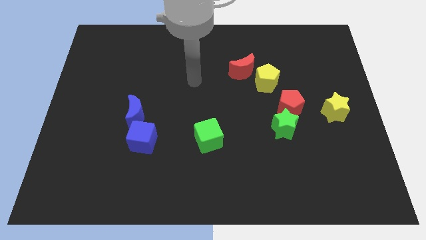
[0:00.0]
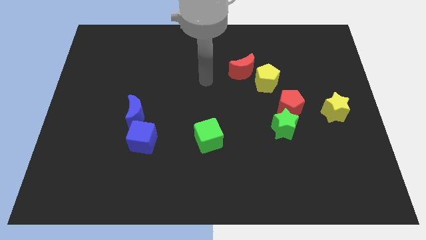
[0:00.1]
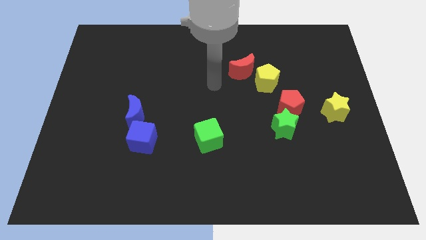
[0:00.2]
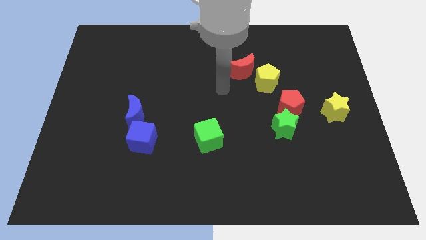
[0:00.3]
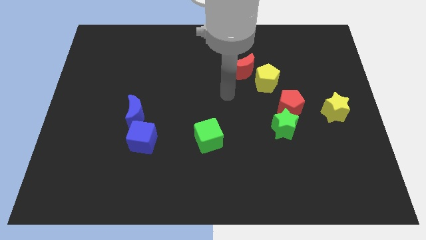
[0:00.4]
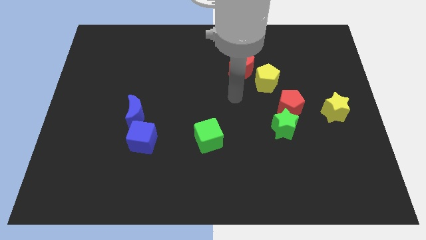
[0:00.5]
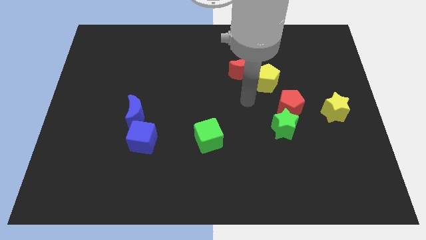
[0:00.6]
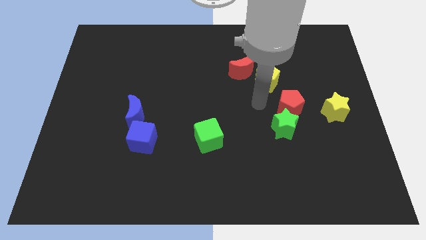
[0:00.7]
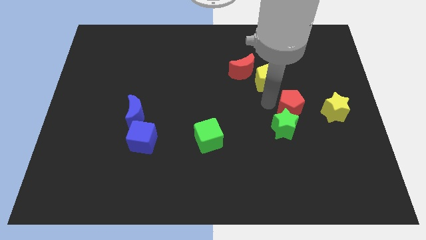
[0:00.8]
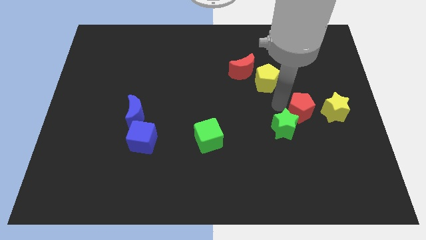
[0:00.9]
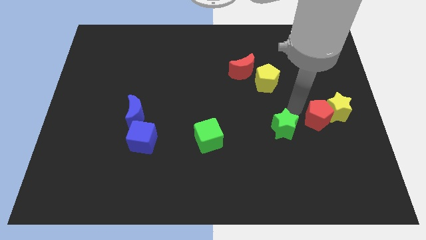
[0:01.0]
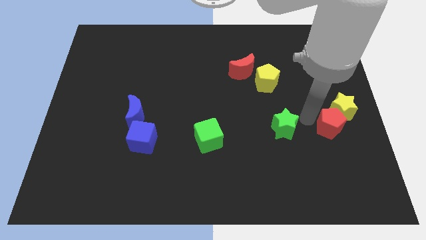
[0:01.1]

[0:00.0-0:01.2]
pull the green star apart from the red pentagon

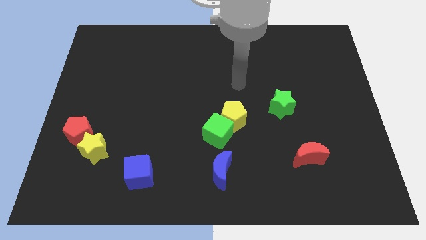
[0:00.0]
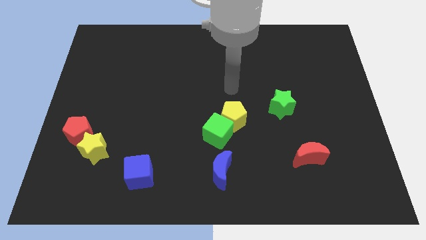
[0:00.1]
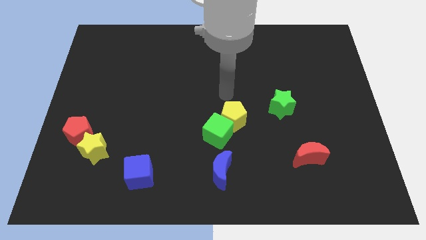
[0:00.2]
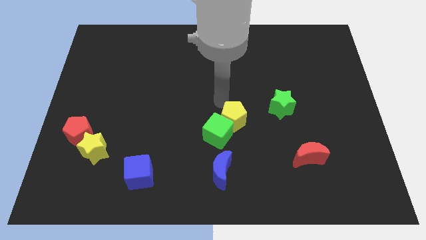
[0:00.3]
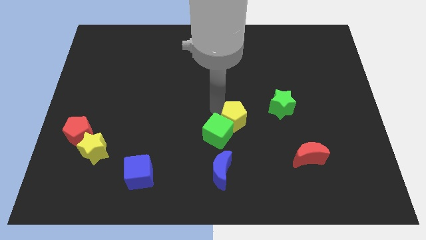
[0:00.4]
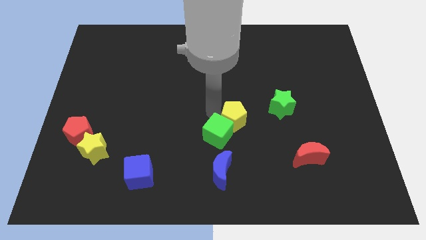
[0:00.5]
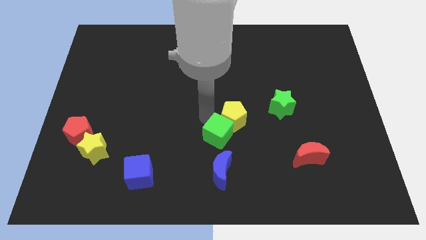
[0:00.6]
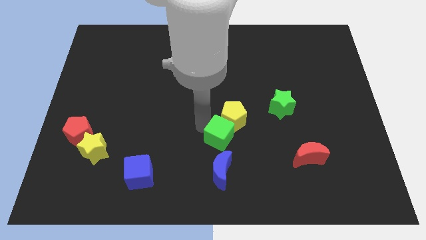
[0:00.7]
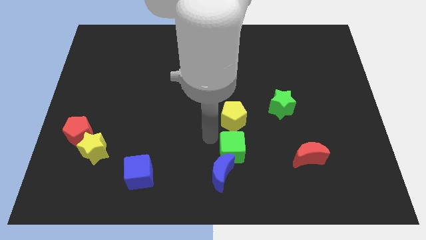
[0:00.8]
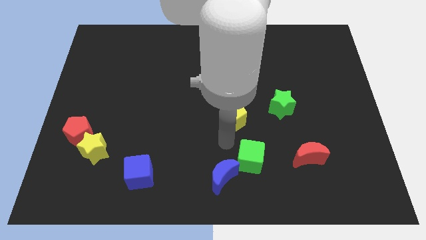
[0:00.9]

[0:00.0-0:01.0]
separate the yellow pentagon from the green cube

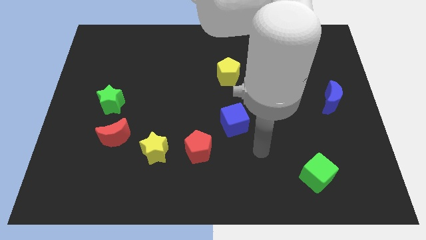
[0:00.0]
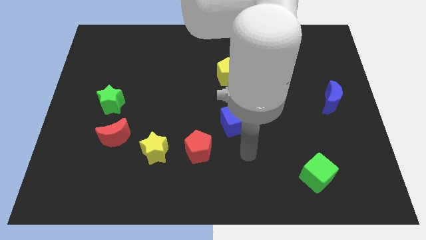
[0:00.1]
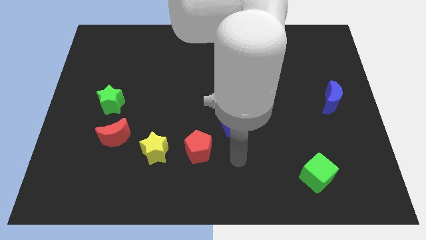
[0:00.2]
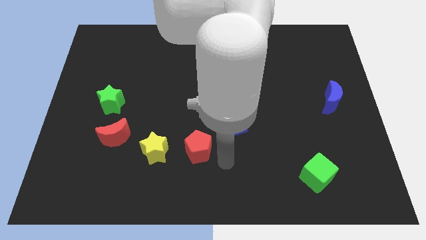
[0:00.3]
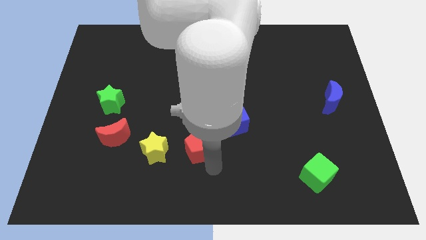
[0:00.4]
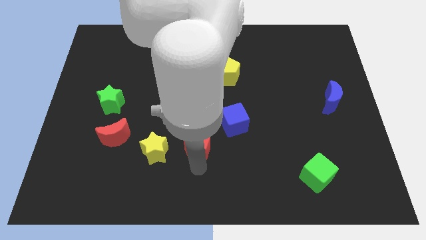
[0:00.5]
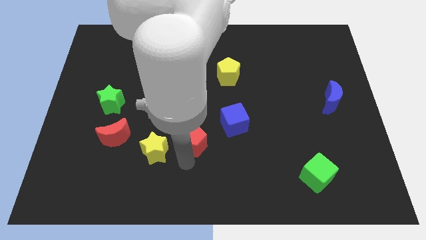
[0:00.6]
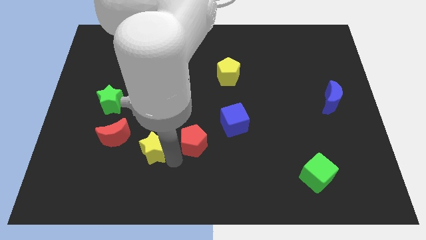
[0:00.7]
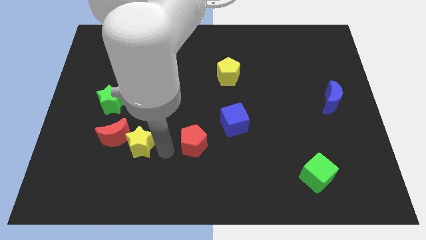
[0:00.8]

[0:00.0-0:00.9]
move the red pentagon away from the yellow star

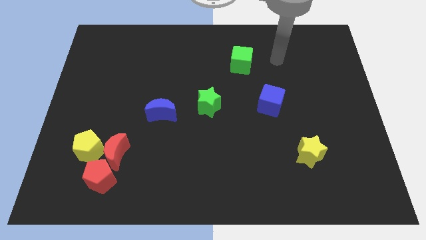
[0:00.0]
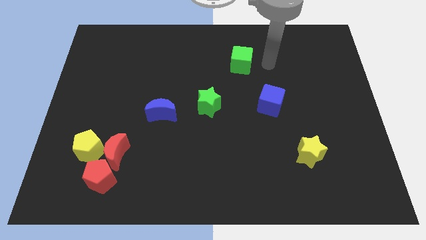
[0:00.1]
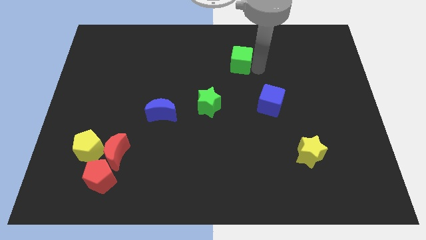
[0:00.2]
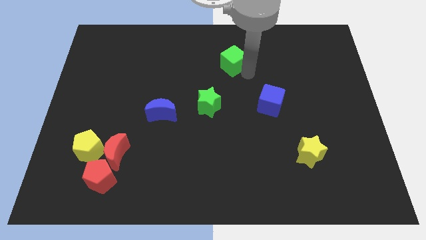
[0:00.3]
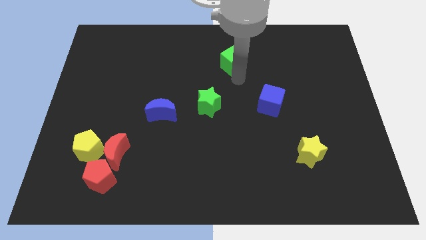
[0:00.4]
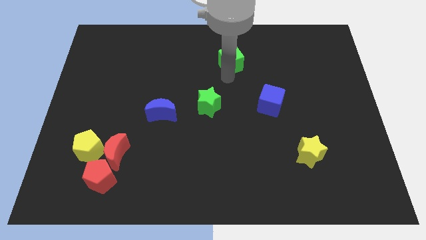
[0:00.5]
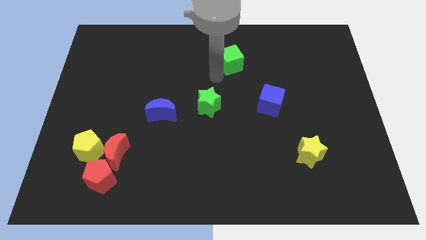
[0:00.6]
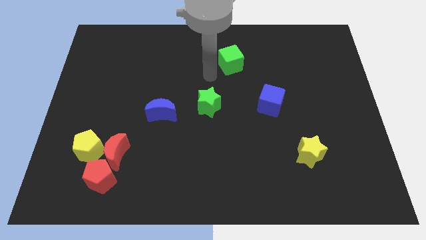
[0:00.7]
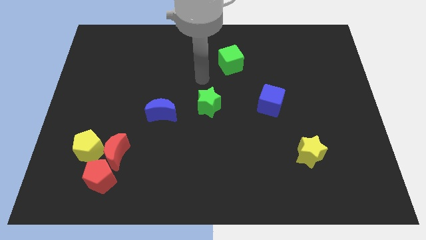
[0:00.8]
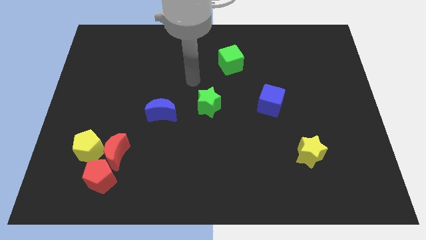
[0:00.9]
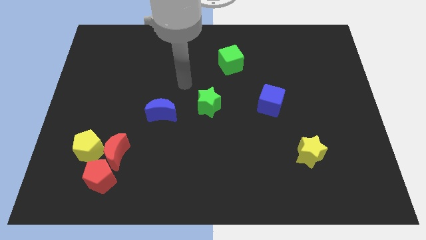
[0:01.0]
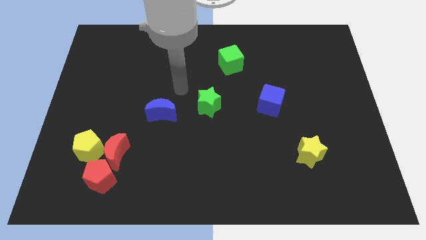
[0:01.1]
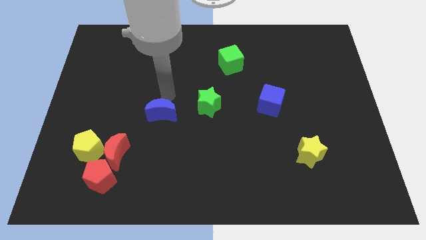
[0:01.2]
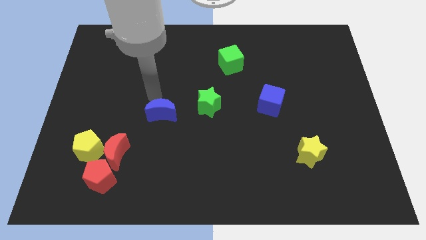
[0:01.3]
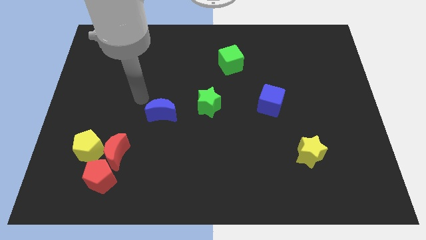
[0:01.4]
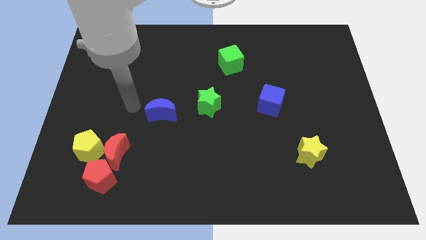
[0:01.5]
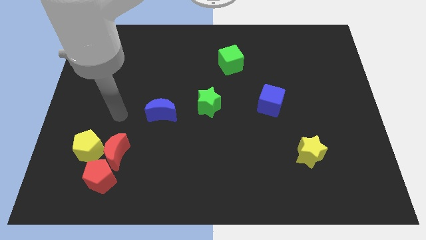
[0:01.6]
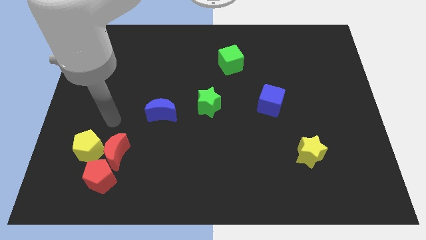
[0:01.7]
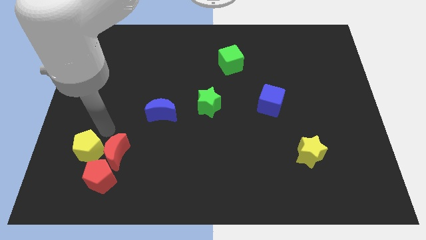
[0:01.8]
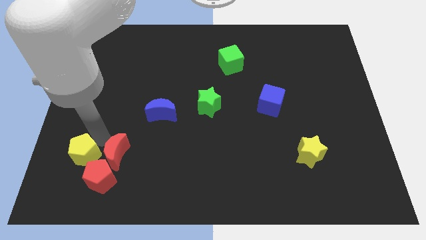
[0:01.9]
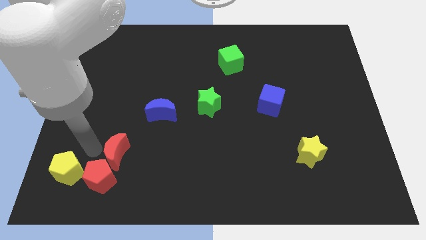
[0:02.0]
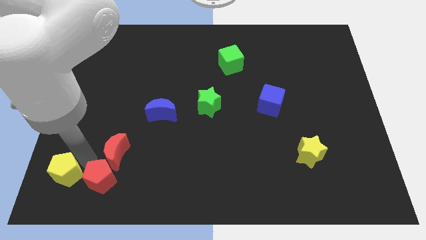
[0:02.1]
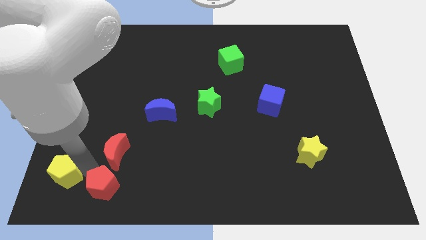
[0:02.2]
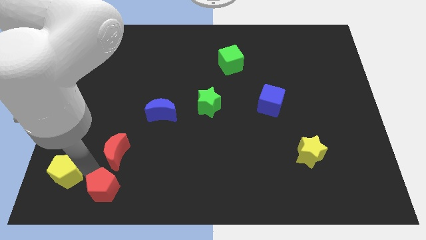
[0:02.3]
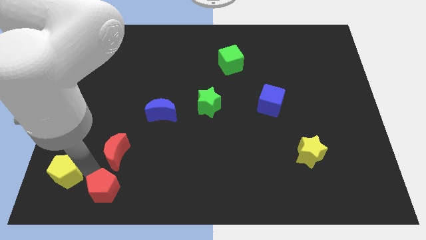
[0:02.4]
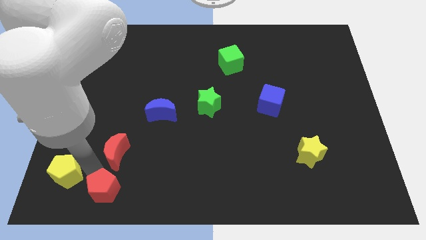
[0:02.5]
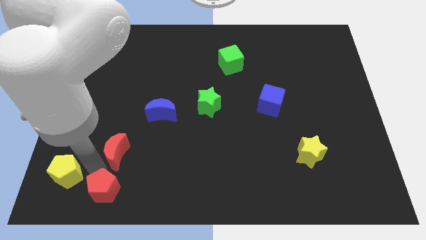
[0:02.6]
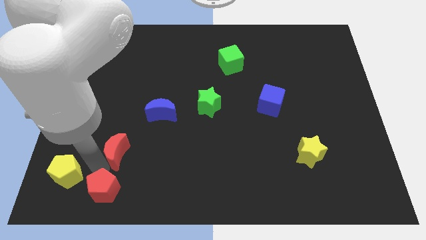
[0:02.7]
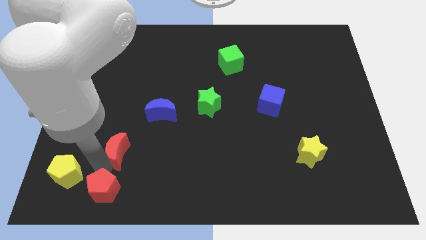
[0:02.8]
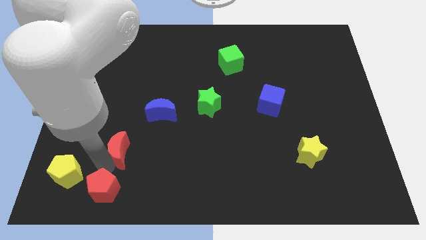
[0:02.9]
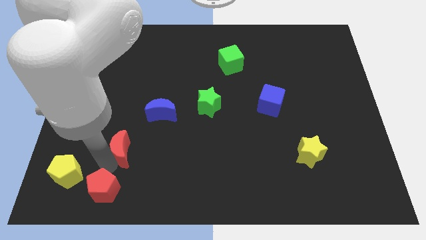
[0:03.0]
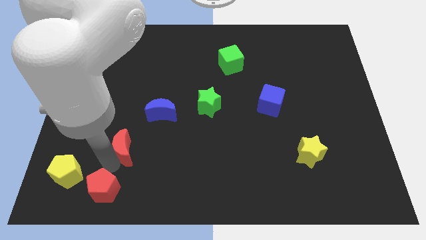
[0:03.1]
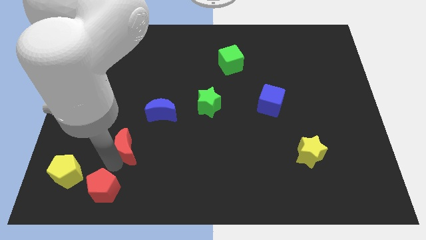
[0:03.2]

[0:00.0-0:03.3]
move the red moon away from the yellow pentagon and red pentagon

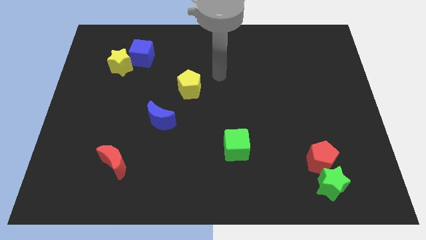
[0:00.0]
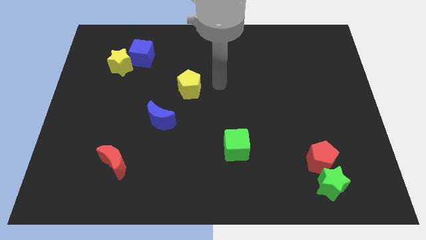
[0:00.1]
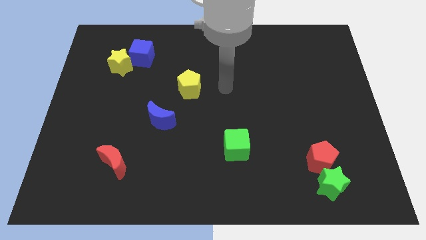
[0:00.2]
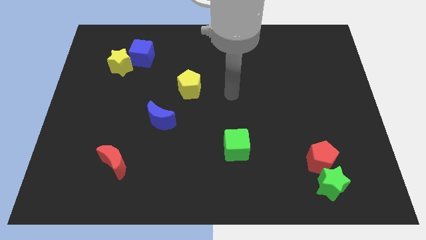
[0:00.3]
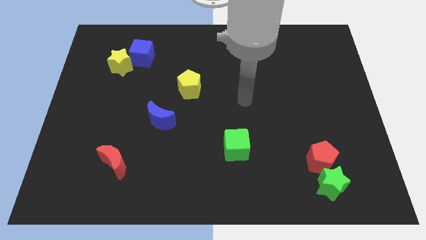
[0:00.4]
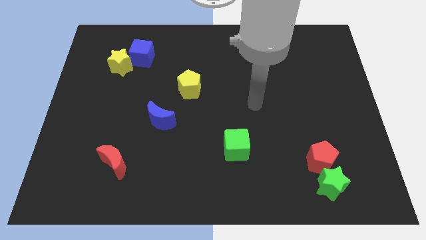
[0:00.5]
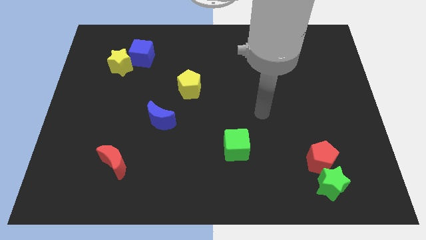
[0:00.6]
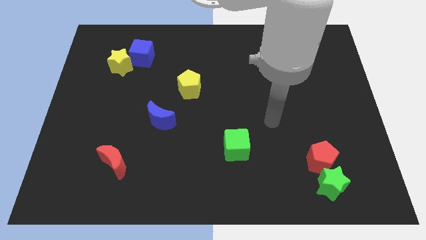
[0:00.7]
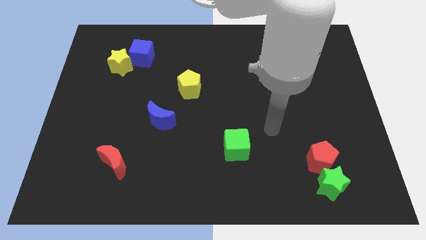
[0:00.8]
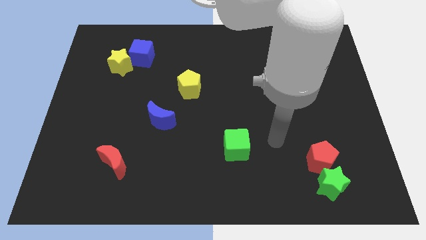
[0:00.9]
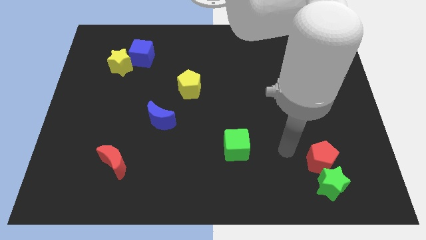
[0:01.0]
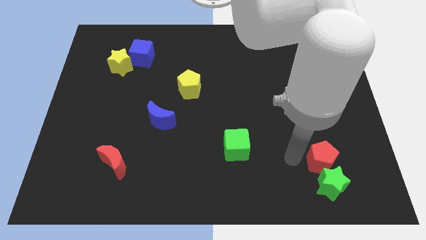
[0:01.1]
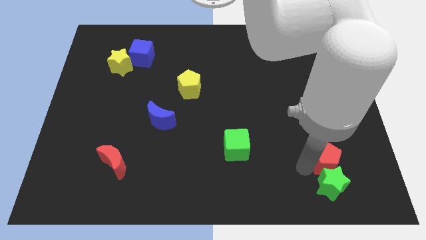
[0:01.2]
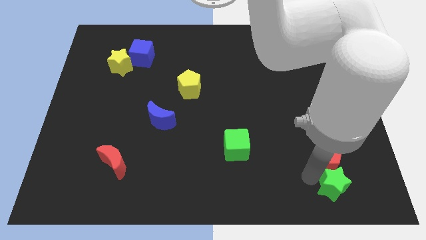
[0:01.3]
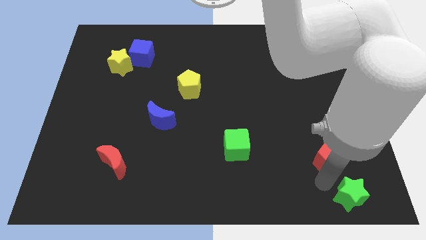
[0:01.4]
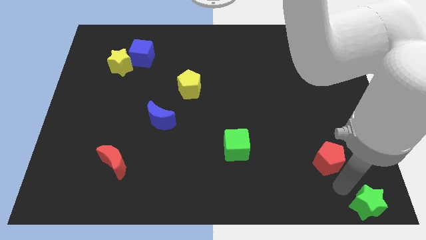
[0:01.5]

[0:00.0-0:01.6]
separate the red pentagon from the green star

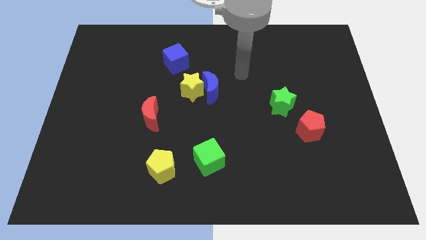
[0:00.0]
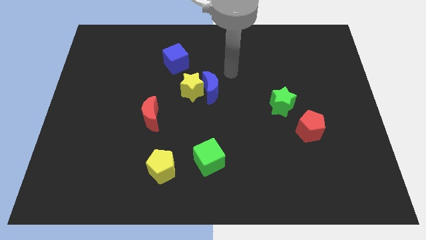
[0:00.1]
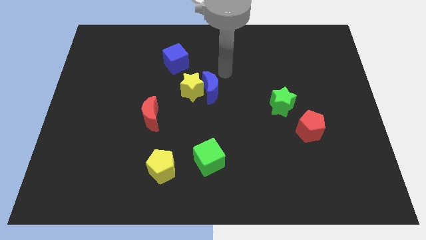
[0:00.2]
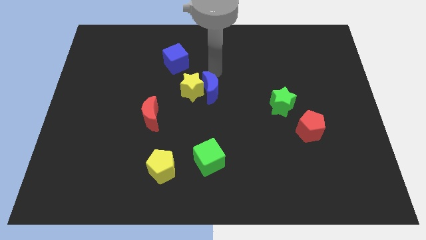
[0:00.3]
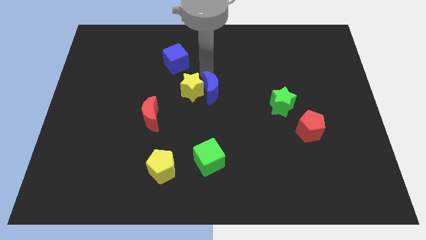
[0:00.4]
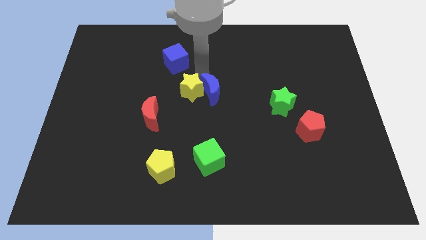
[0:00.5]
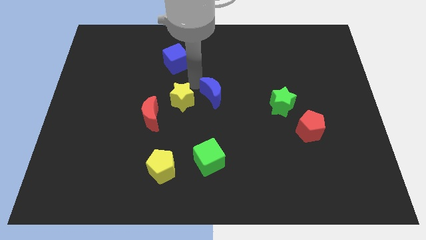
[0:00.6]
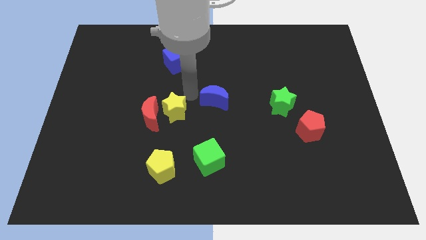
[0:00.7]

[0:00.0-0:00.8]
move the blue moon away from the yellow star

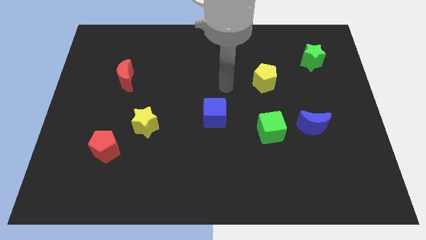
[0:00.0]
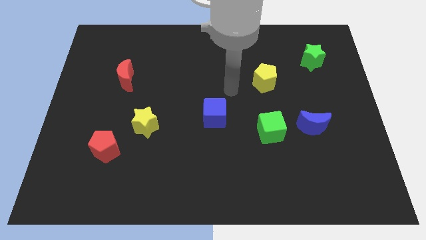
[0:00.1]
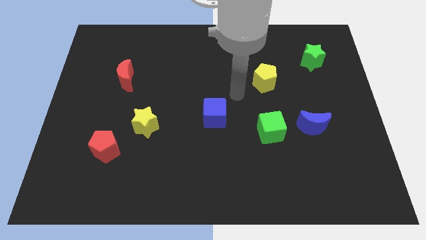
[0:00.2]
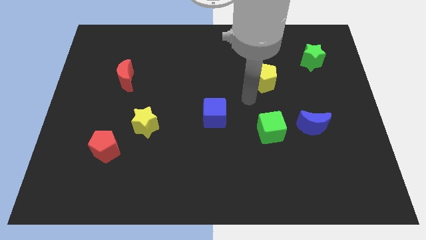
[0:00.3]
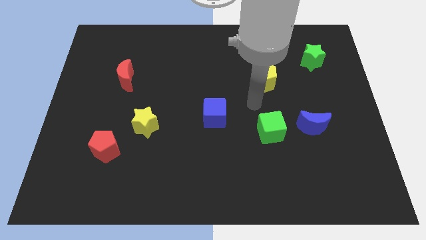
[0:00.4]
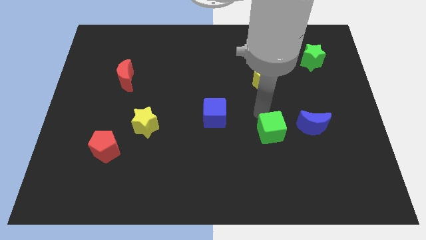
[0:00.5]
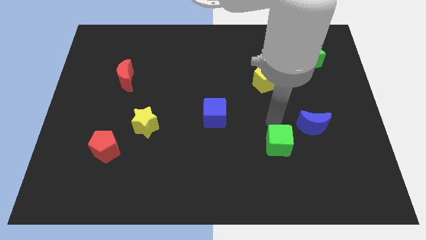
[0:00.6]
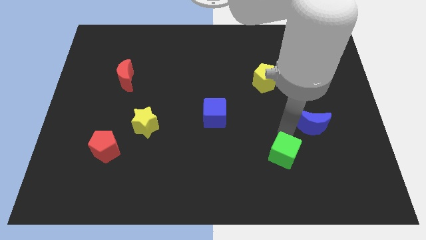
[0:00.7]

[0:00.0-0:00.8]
separate the blue moon from the green cube
